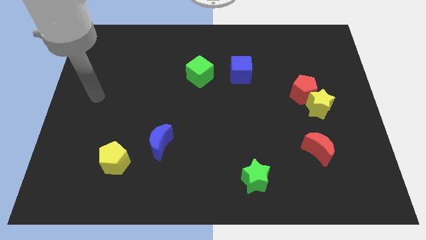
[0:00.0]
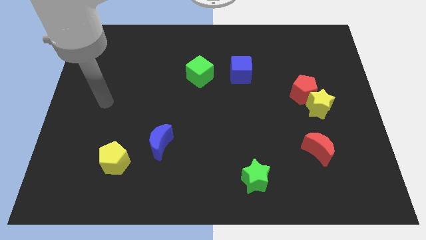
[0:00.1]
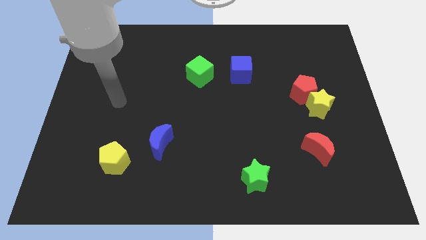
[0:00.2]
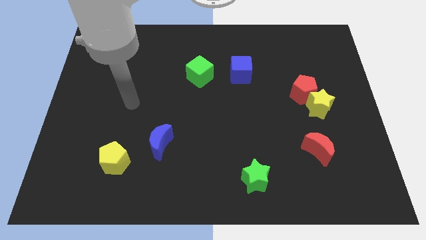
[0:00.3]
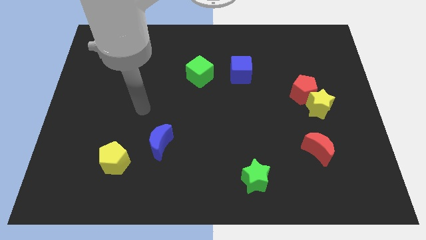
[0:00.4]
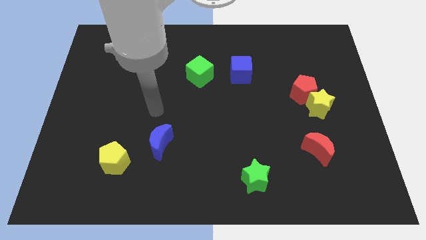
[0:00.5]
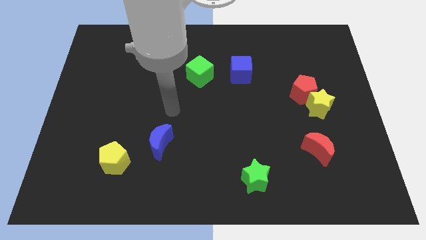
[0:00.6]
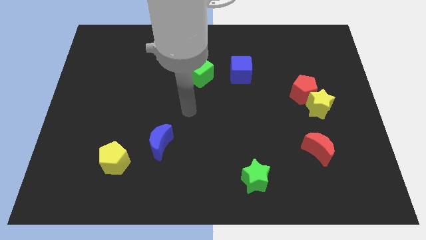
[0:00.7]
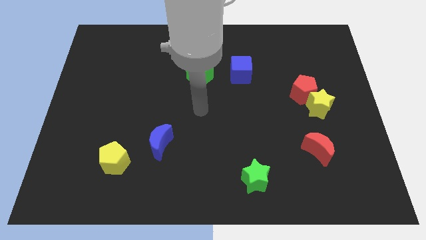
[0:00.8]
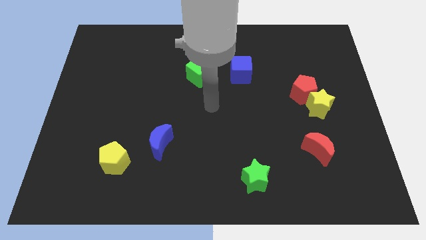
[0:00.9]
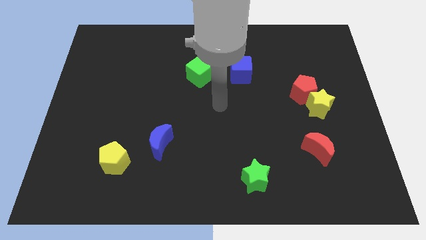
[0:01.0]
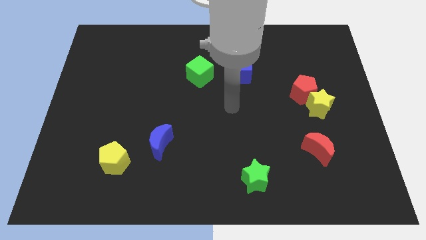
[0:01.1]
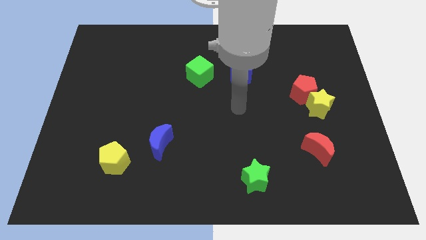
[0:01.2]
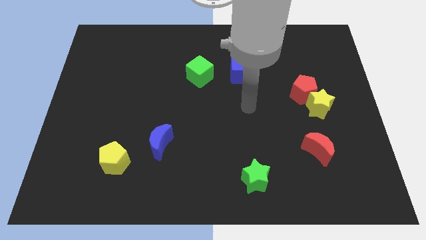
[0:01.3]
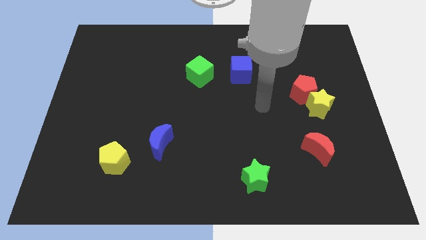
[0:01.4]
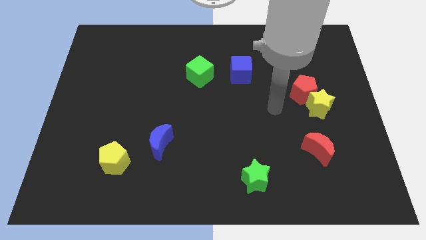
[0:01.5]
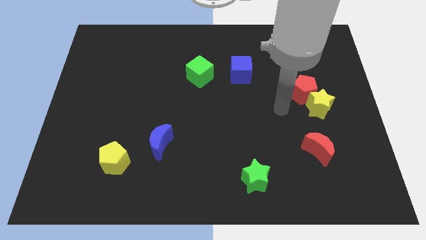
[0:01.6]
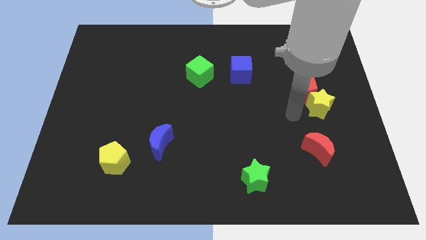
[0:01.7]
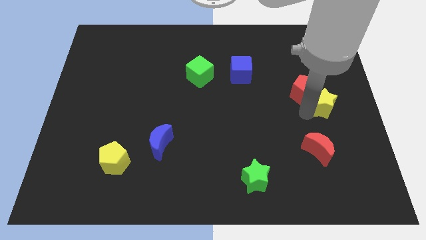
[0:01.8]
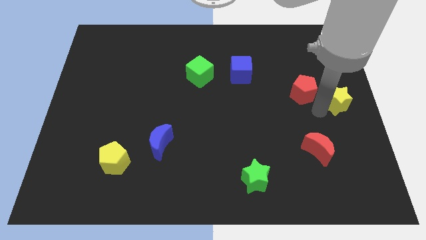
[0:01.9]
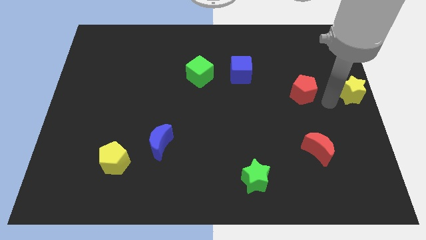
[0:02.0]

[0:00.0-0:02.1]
move the red pentagon away from the yellow star

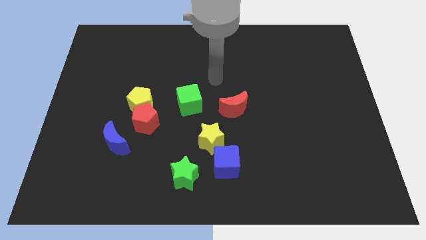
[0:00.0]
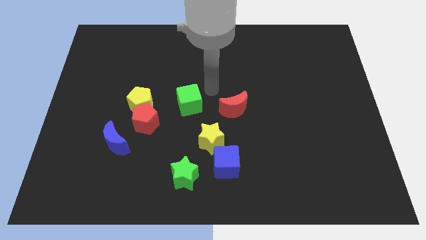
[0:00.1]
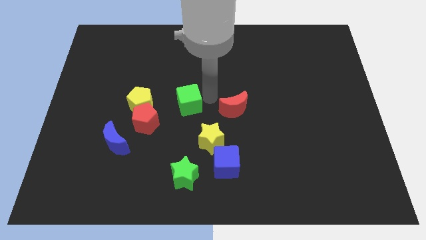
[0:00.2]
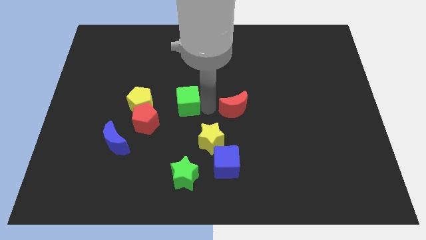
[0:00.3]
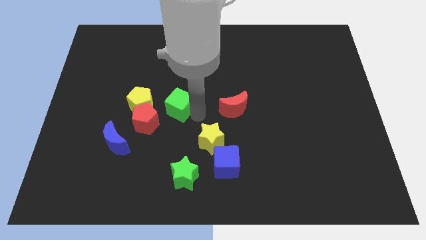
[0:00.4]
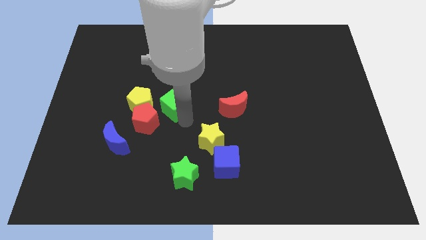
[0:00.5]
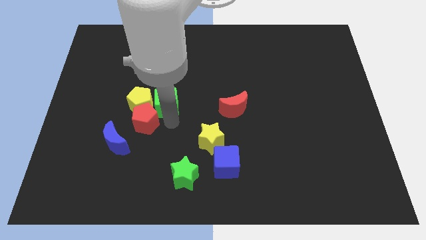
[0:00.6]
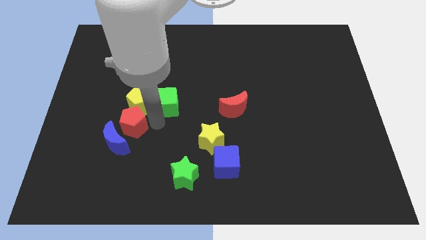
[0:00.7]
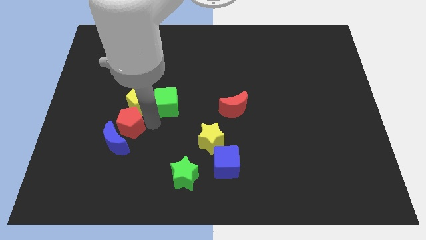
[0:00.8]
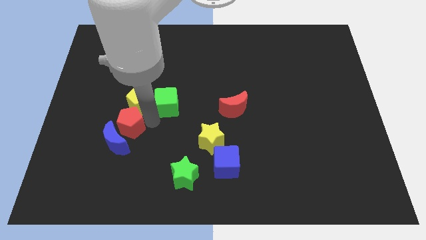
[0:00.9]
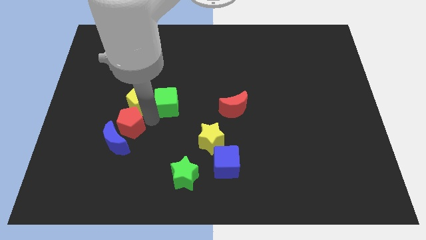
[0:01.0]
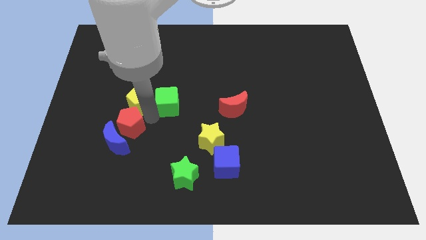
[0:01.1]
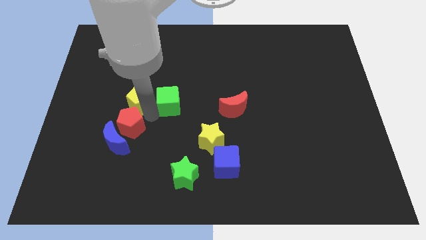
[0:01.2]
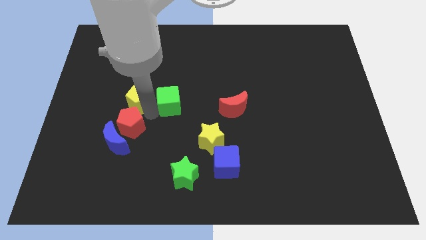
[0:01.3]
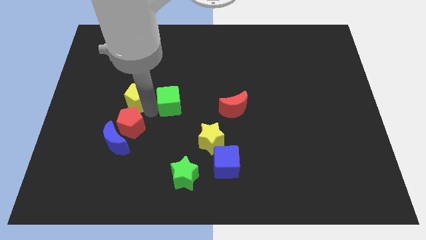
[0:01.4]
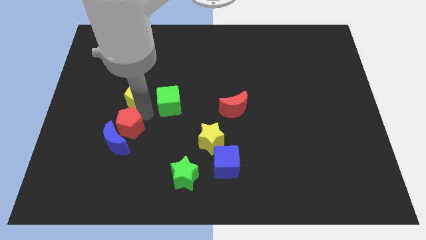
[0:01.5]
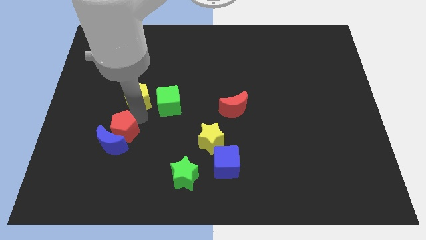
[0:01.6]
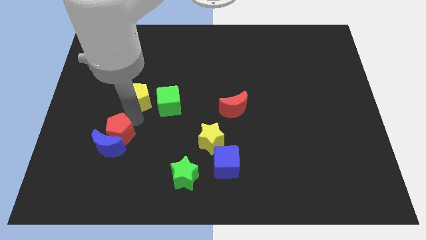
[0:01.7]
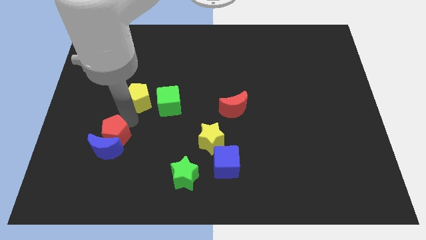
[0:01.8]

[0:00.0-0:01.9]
separate the yellow pentagon from the red pentagon

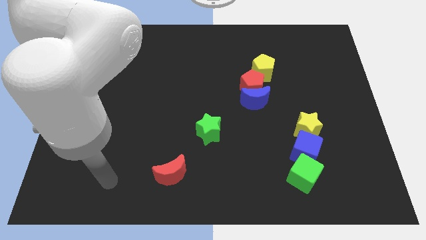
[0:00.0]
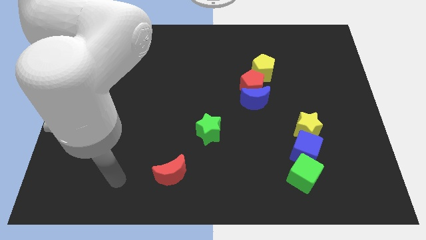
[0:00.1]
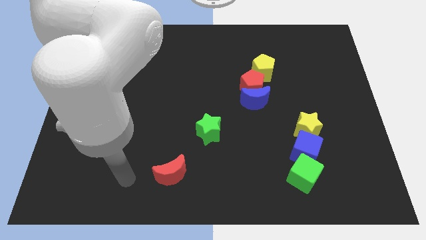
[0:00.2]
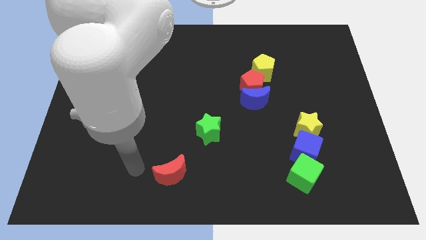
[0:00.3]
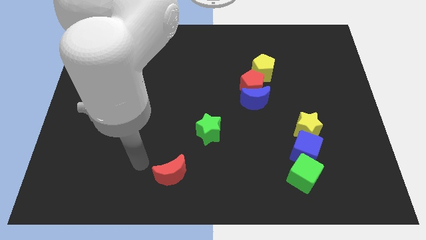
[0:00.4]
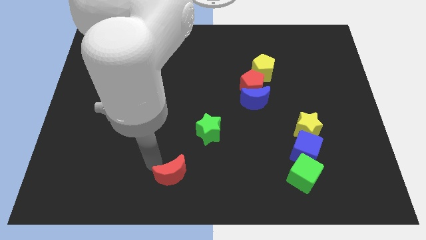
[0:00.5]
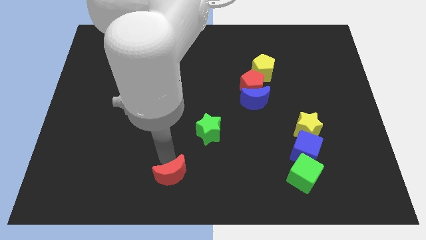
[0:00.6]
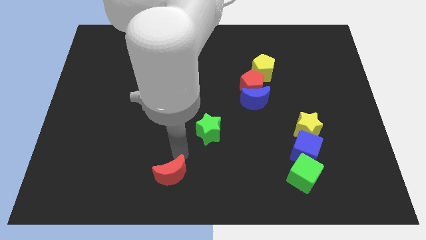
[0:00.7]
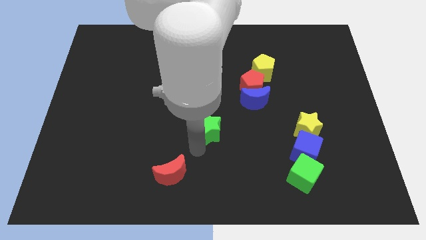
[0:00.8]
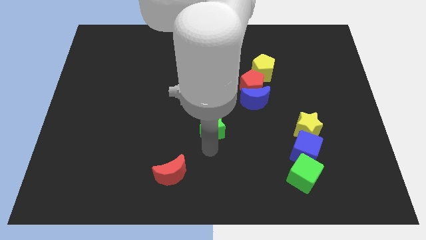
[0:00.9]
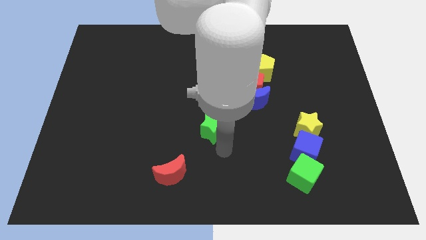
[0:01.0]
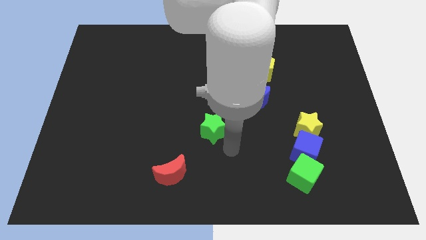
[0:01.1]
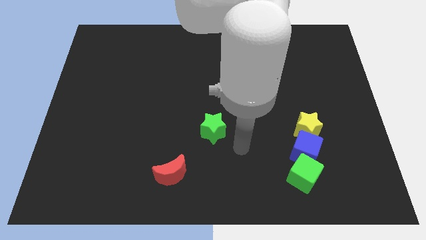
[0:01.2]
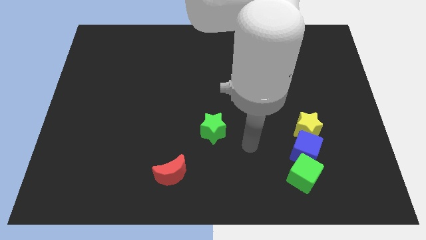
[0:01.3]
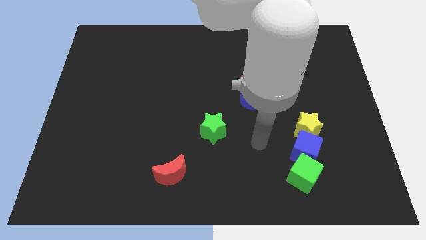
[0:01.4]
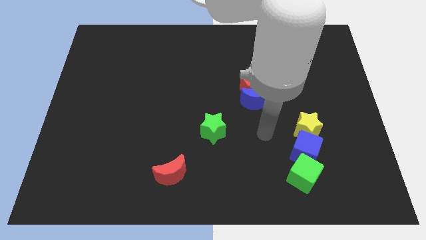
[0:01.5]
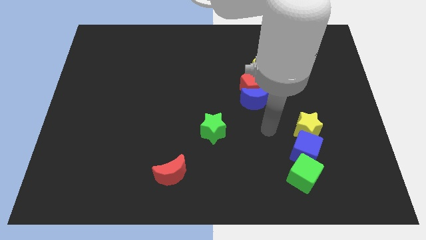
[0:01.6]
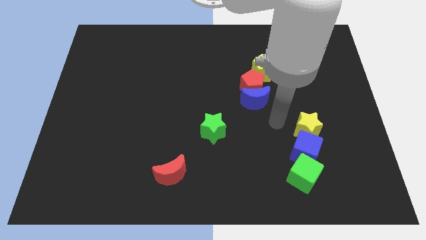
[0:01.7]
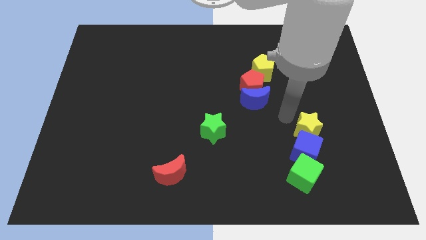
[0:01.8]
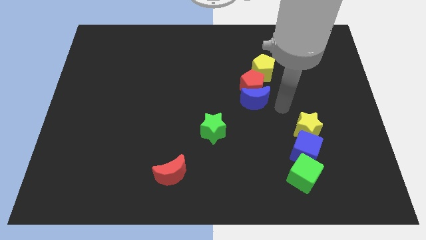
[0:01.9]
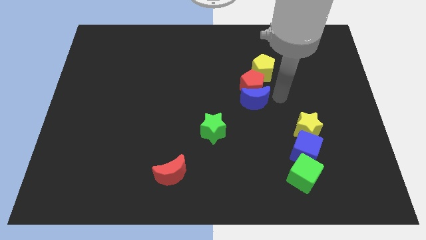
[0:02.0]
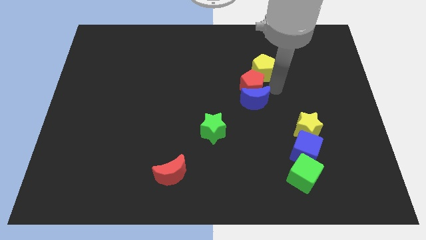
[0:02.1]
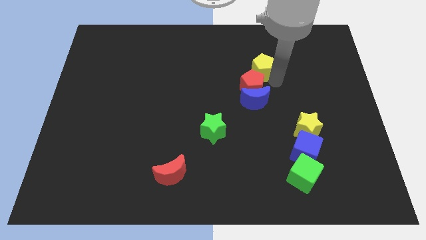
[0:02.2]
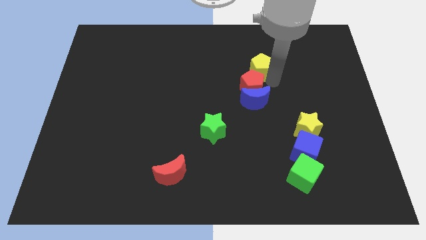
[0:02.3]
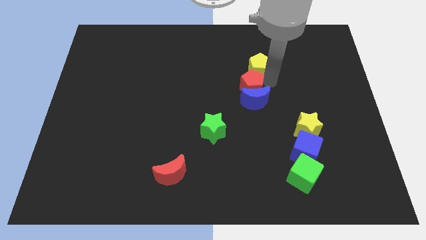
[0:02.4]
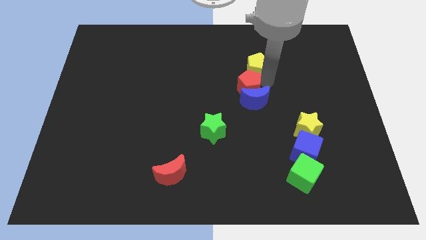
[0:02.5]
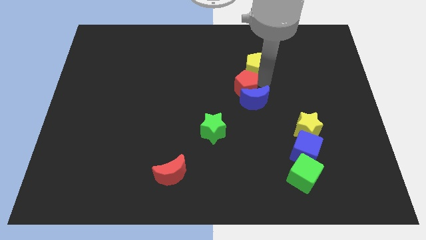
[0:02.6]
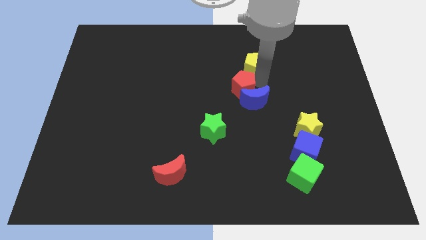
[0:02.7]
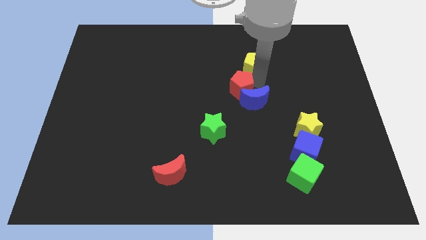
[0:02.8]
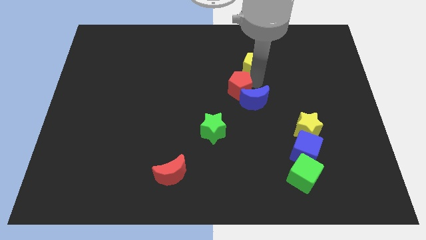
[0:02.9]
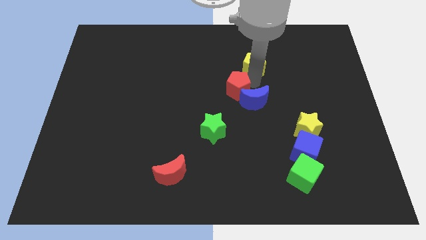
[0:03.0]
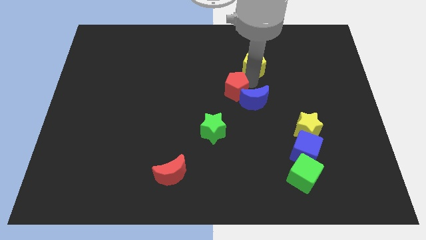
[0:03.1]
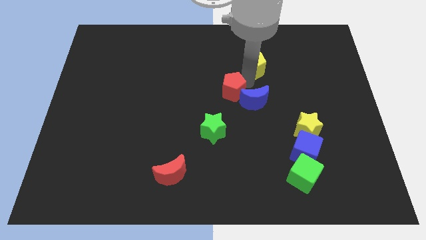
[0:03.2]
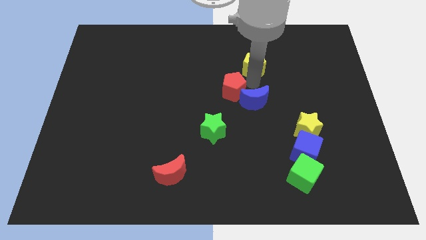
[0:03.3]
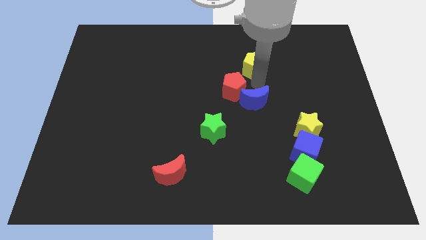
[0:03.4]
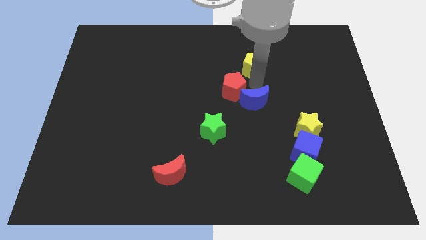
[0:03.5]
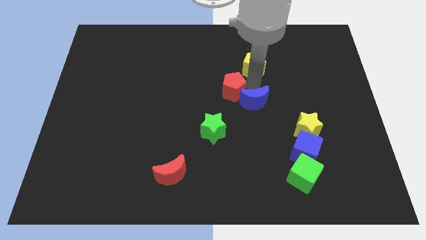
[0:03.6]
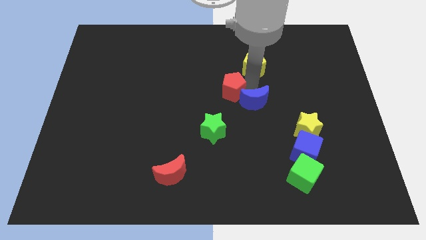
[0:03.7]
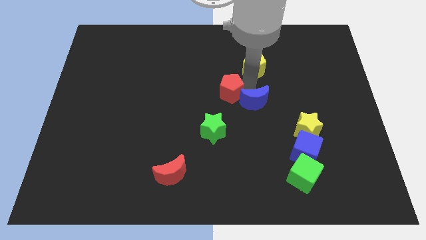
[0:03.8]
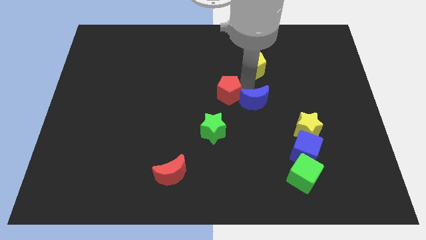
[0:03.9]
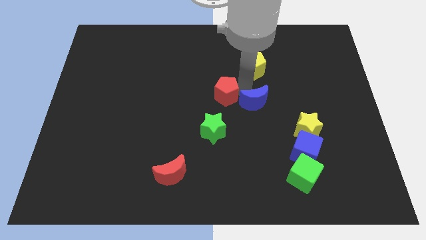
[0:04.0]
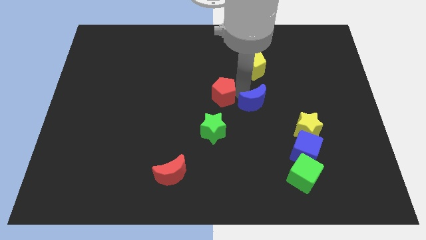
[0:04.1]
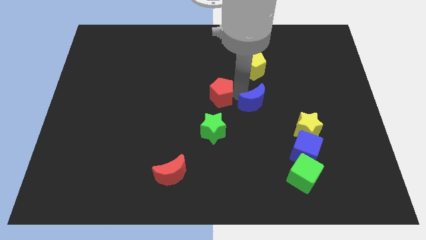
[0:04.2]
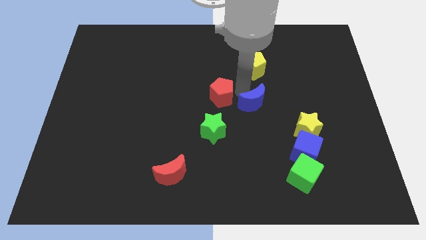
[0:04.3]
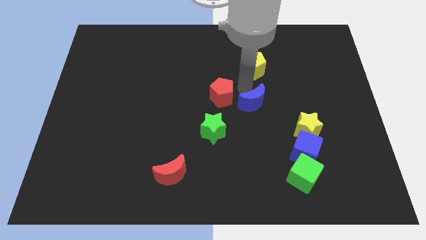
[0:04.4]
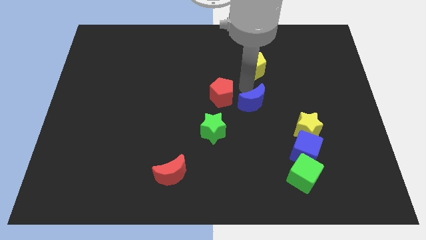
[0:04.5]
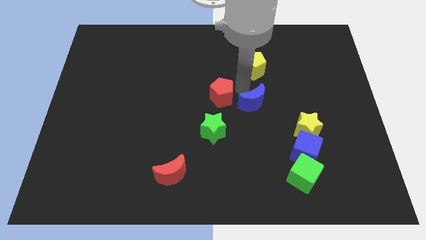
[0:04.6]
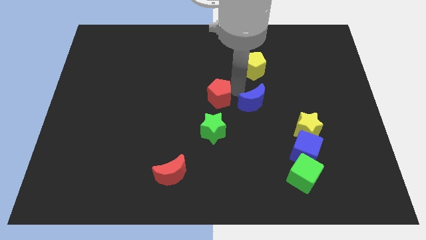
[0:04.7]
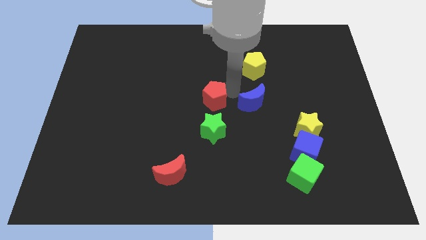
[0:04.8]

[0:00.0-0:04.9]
pull the red pentagon apart from the blue moon and yellow pentagon

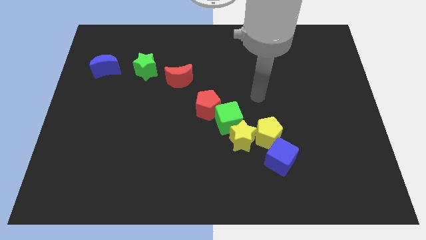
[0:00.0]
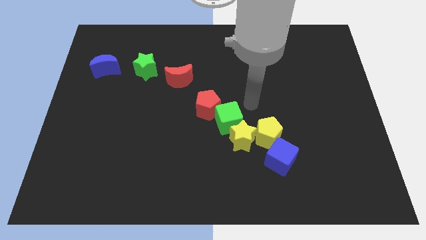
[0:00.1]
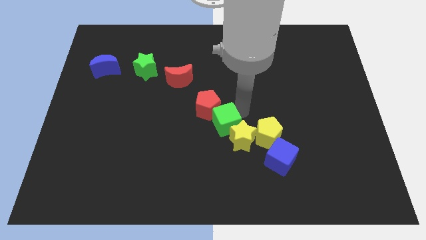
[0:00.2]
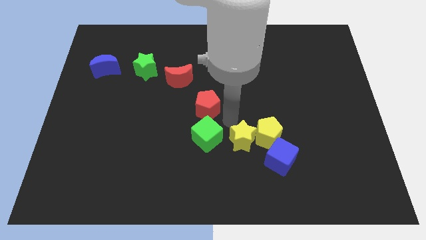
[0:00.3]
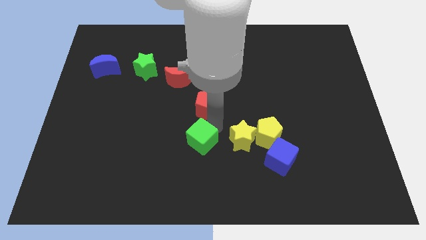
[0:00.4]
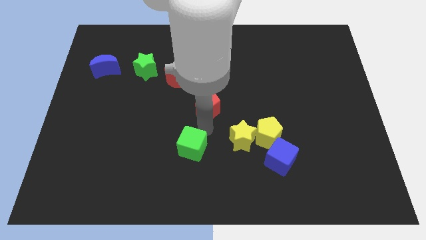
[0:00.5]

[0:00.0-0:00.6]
move the red pentagon away from the green cube

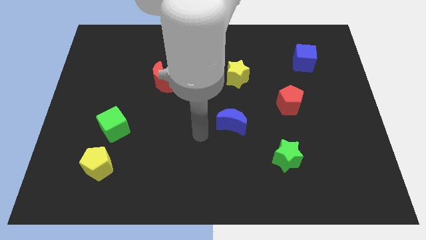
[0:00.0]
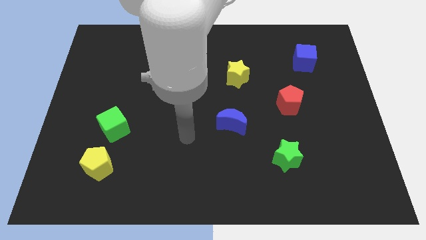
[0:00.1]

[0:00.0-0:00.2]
pull the green cube apart from the yellow pentagon
